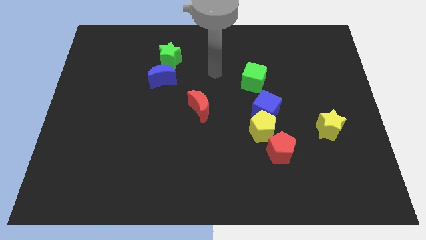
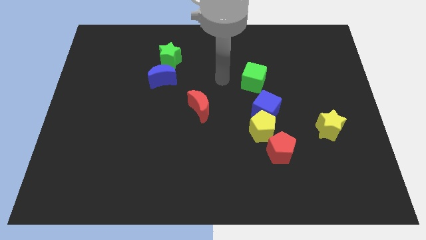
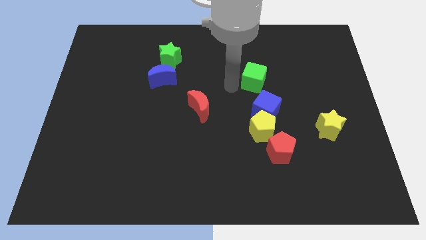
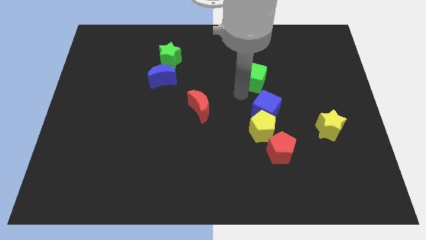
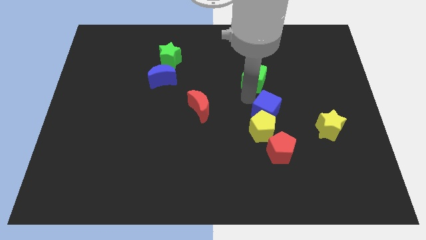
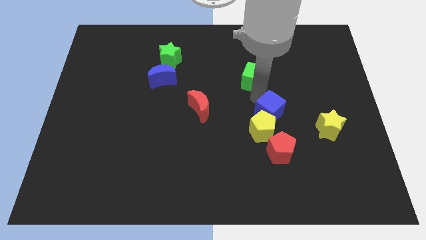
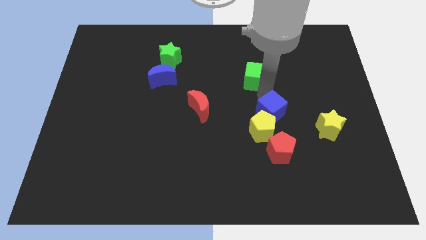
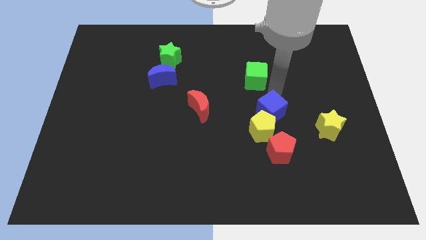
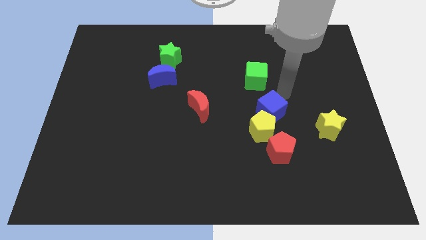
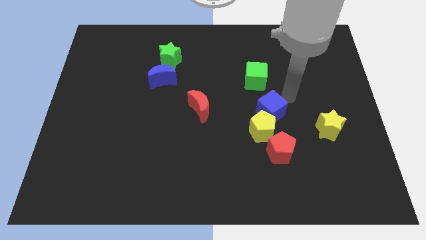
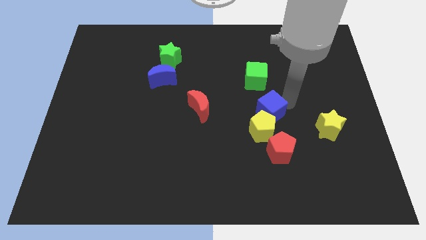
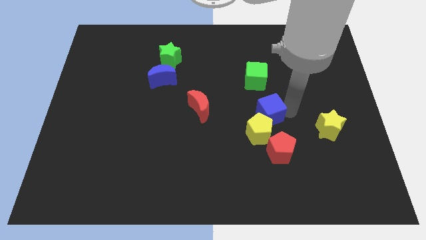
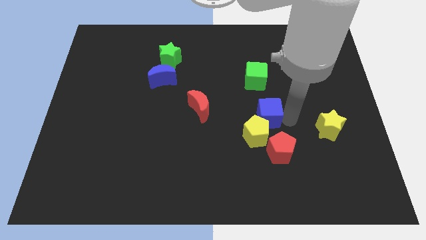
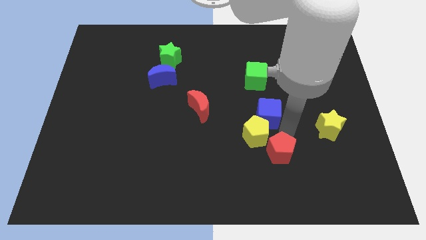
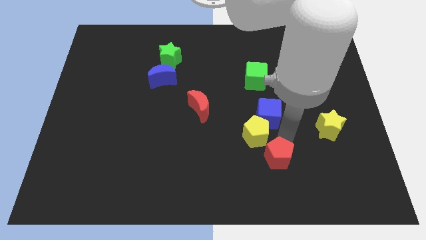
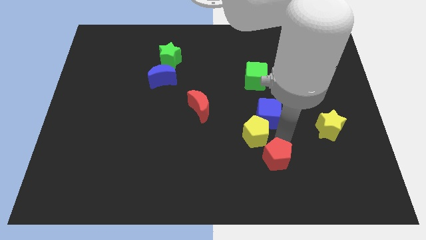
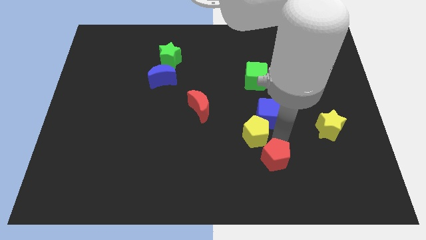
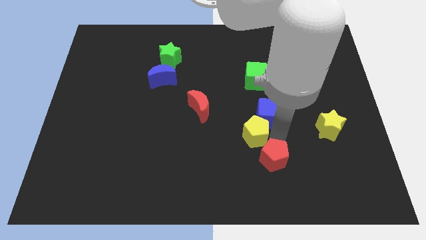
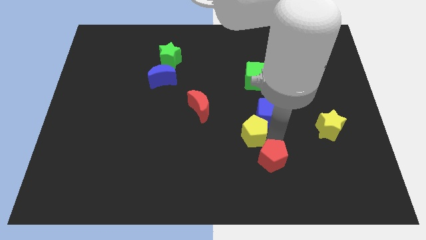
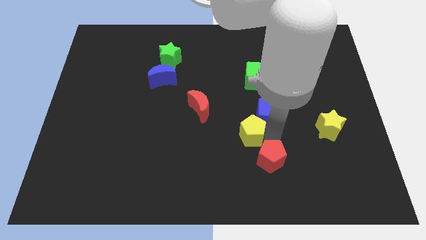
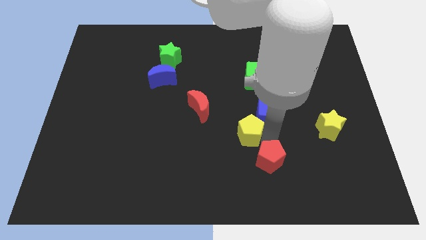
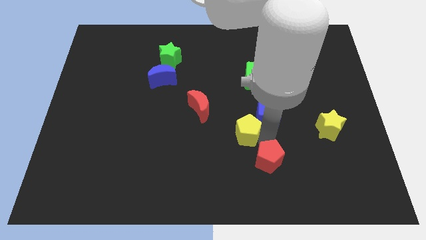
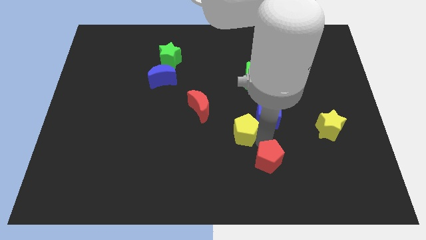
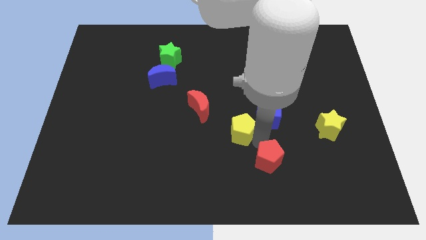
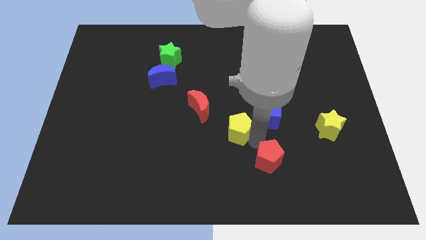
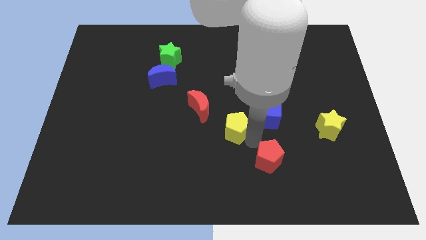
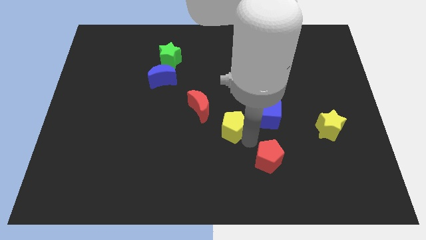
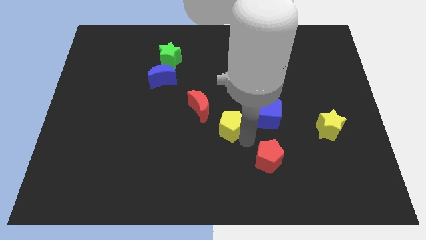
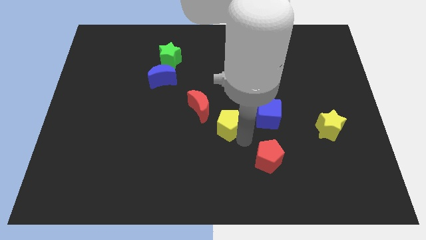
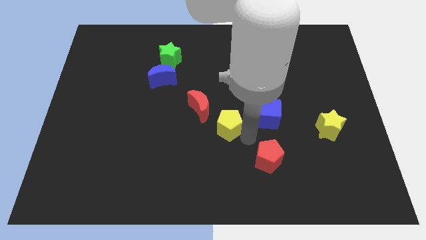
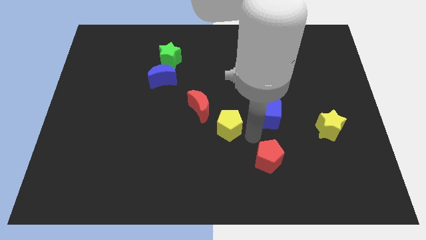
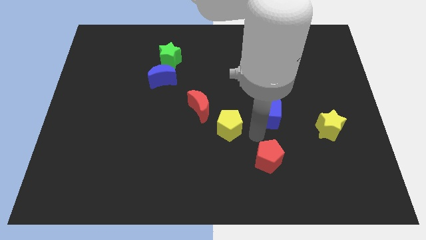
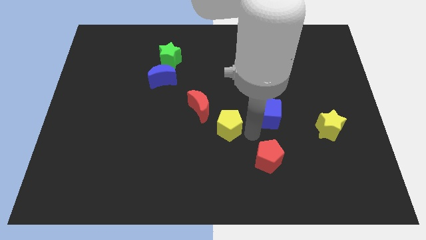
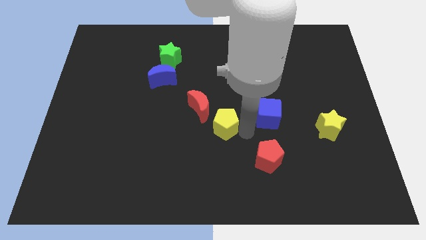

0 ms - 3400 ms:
pull the yellow pentagon apart from the blue cube and red pentagon

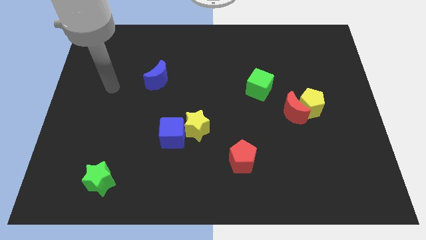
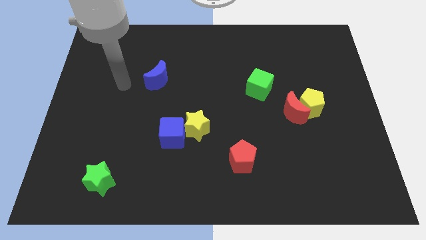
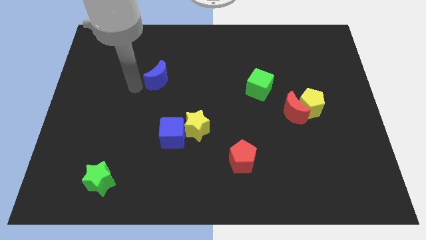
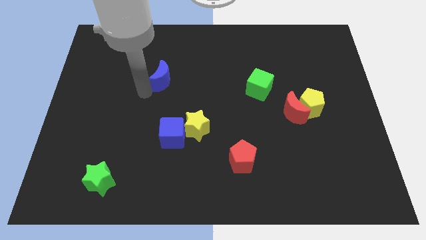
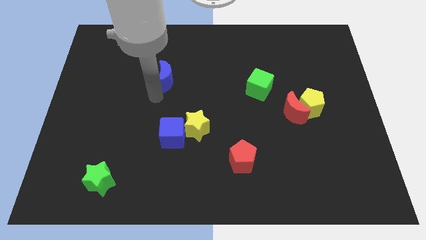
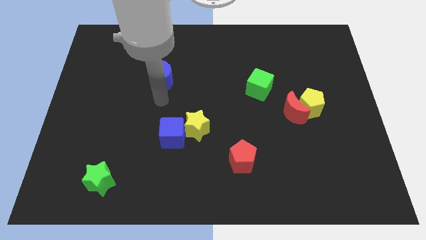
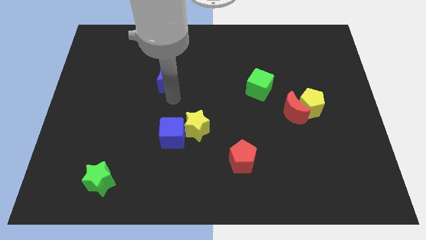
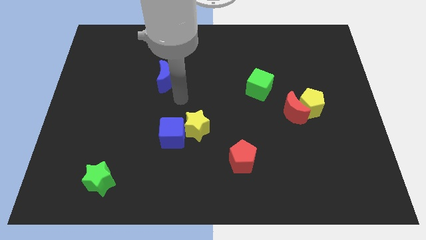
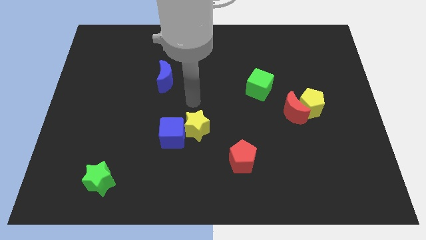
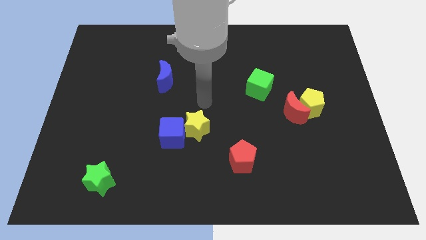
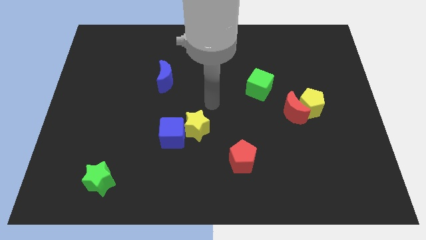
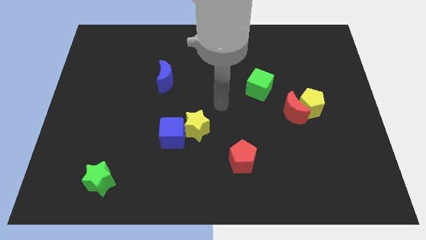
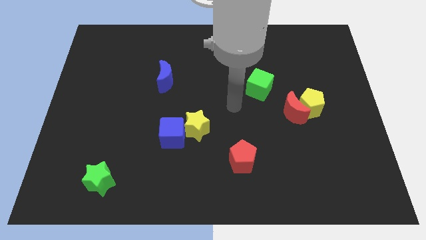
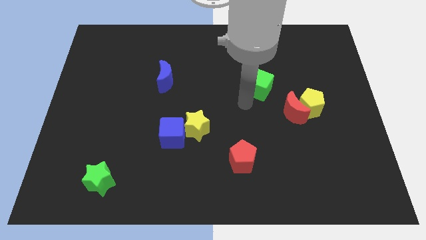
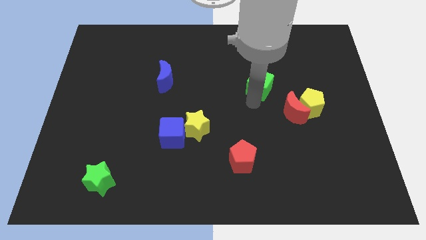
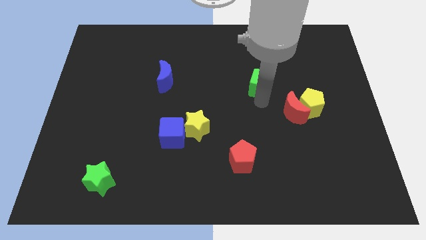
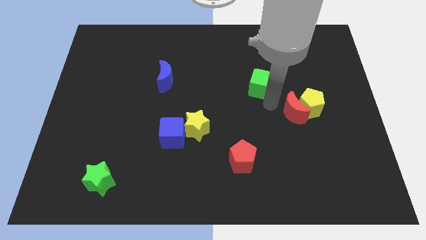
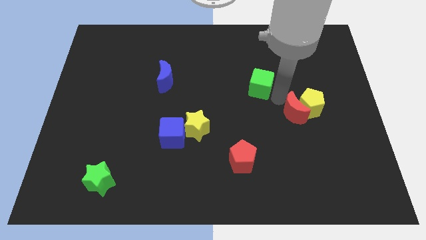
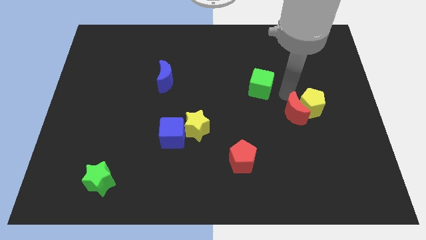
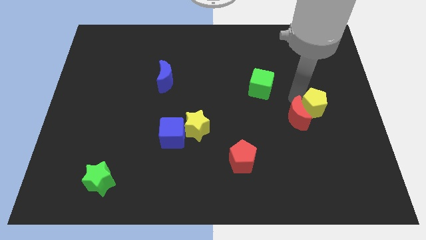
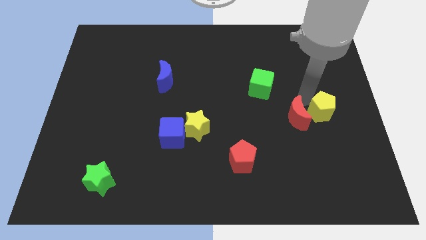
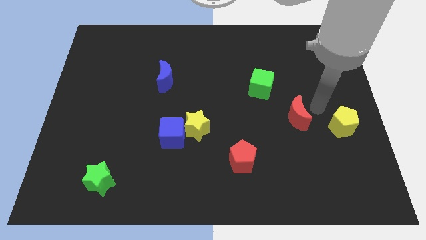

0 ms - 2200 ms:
separate the red moon from the yellow pentagon

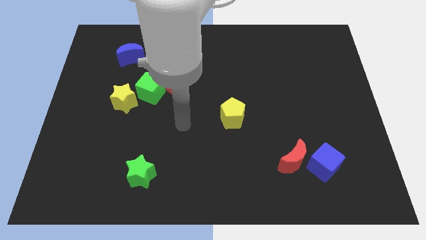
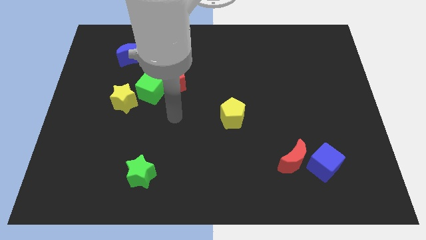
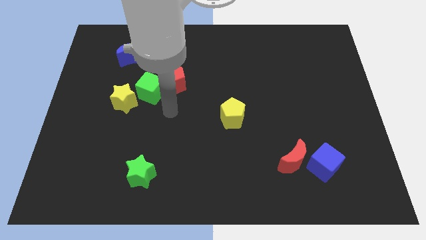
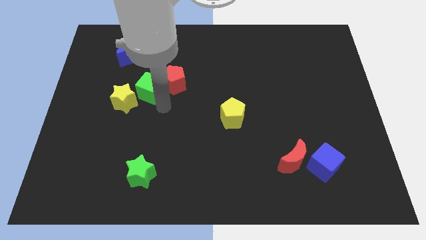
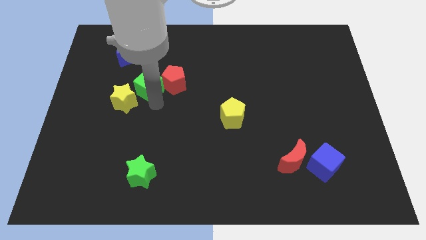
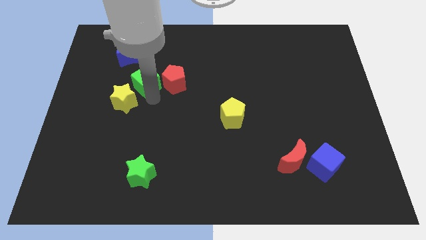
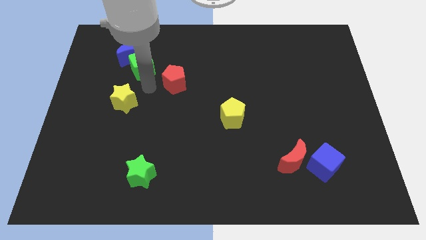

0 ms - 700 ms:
pull the red pentagon apart from the green cube

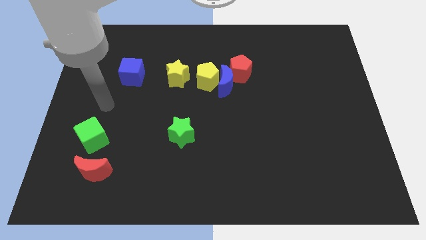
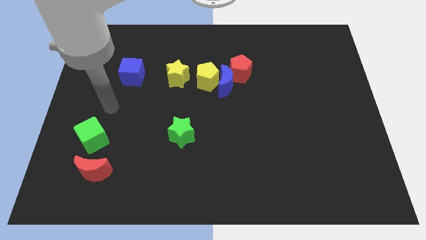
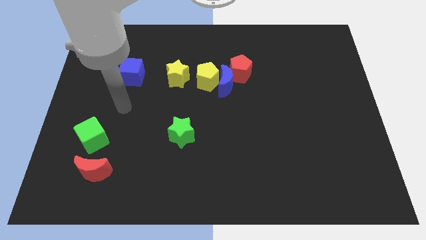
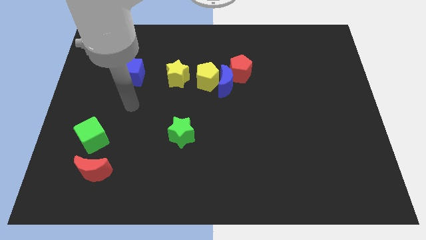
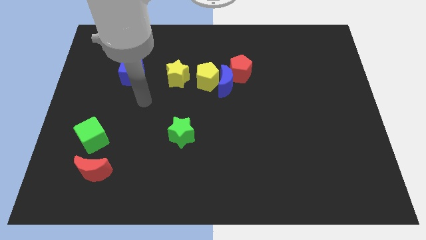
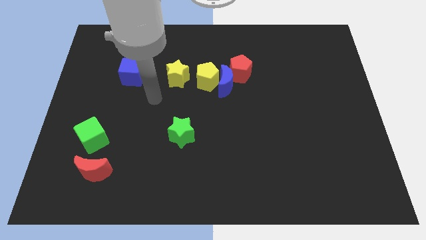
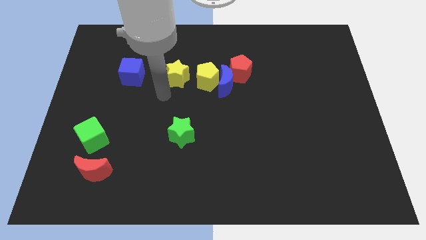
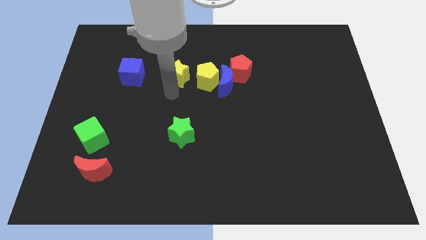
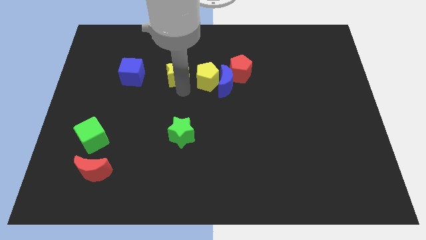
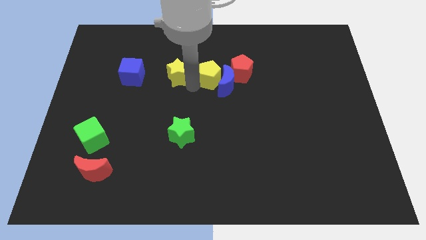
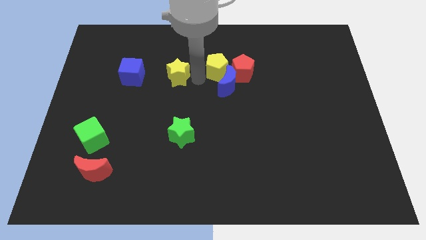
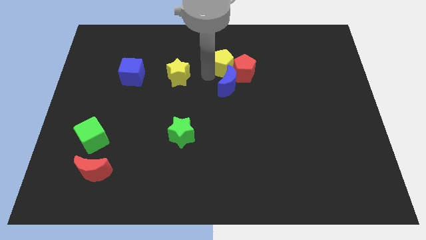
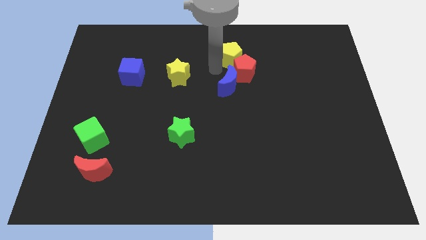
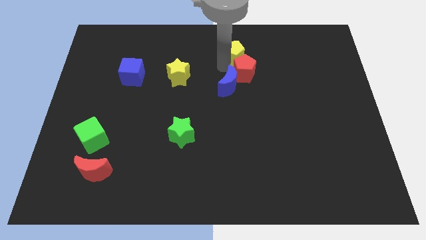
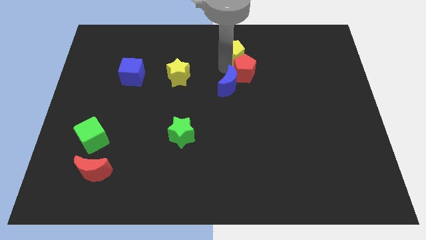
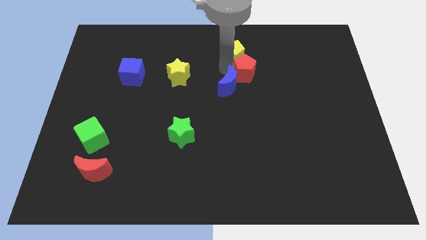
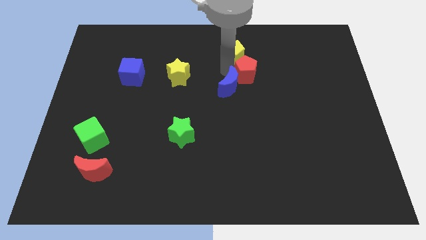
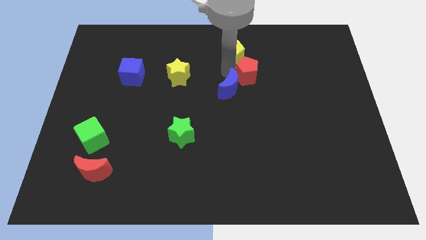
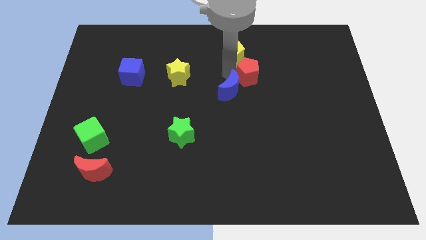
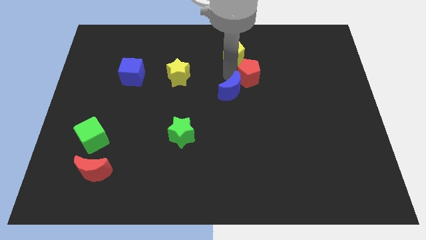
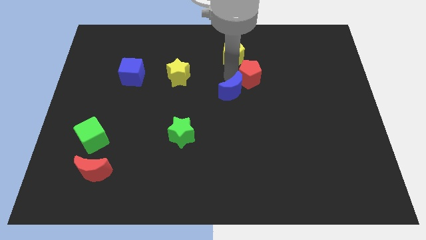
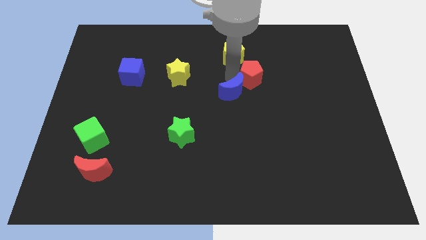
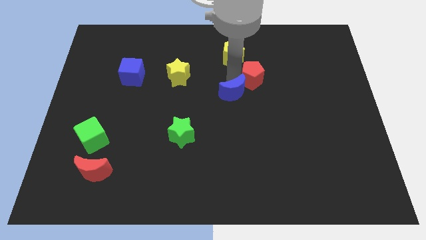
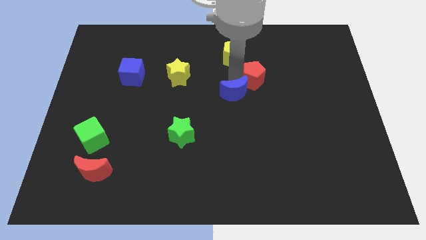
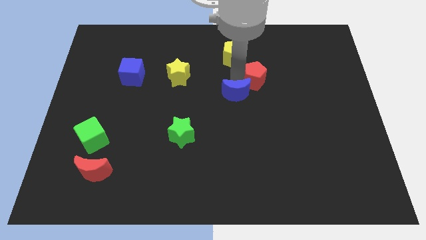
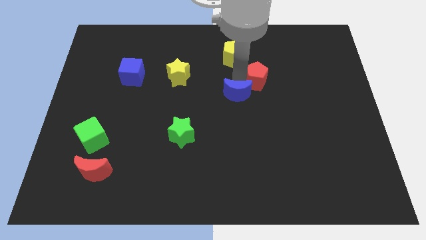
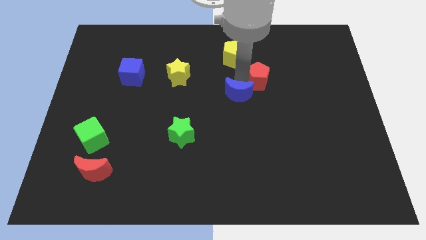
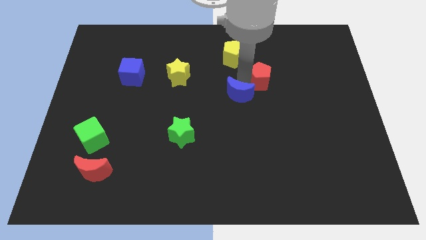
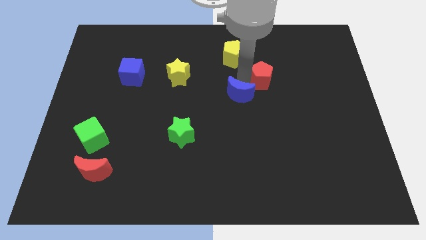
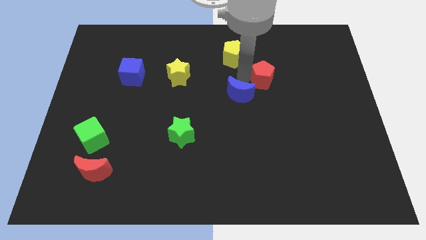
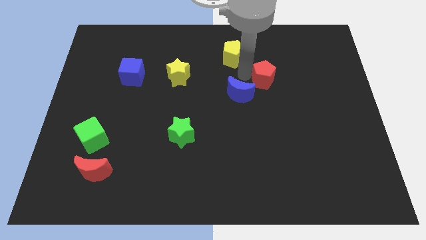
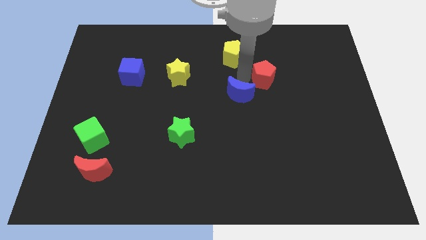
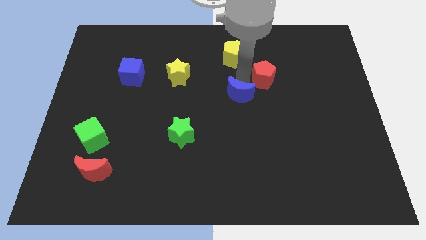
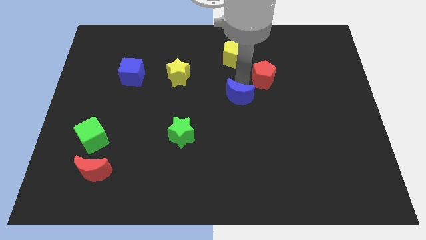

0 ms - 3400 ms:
pull the blue moon apart from the yellow pentagon and red pentagon
